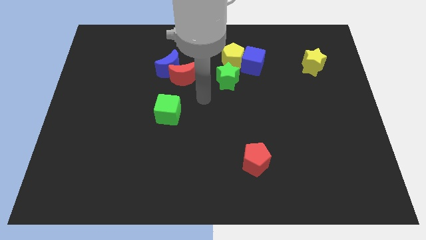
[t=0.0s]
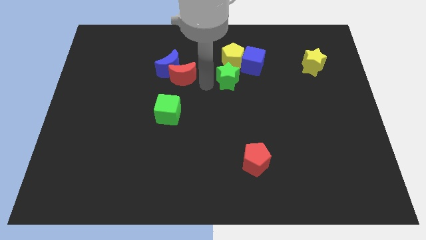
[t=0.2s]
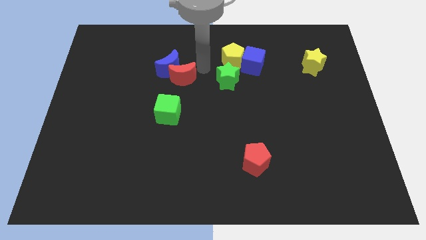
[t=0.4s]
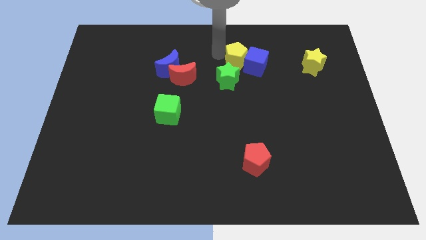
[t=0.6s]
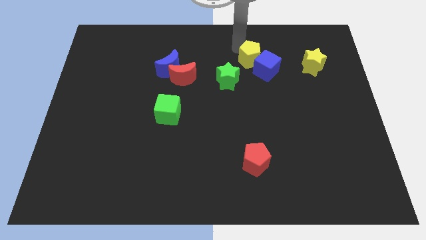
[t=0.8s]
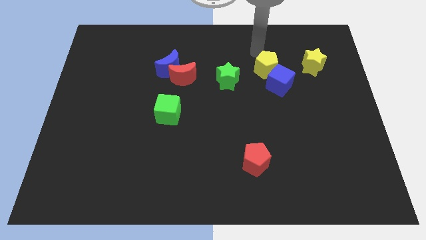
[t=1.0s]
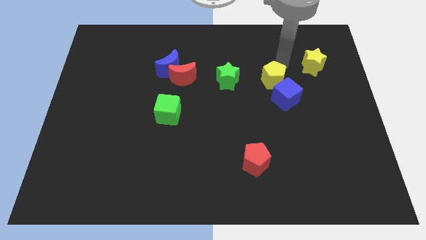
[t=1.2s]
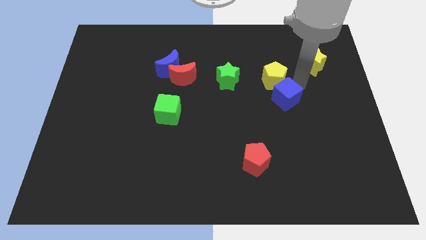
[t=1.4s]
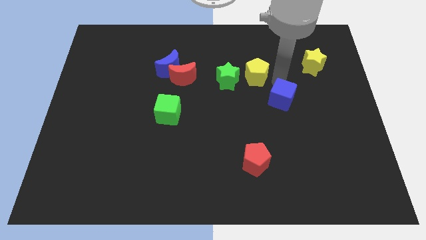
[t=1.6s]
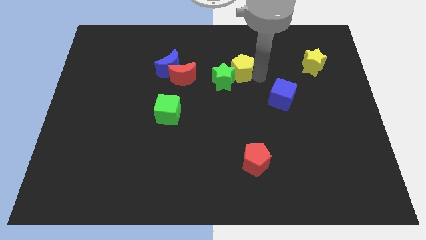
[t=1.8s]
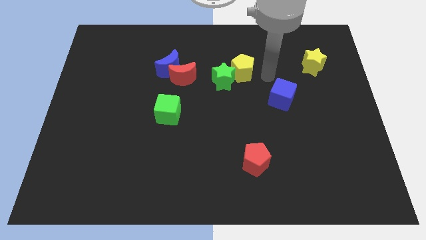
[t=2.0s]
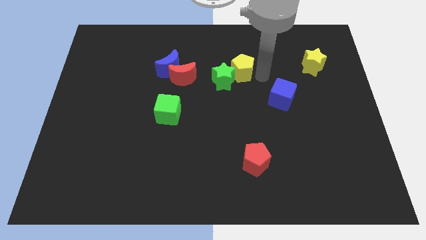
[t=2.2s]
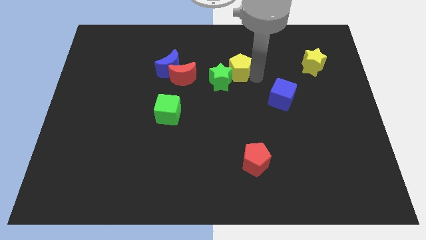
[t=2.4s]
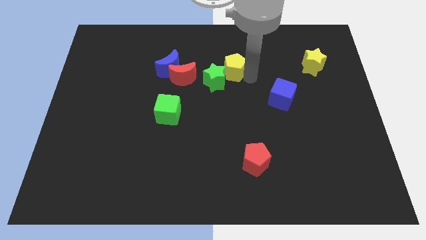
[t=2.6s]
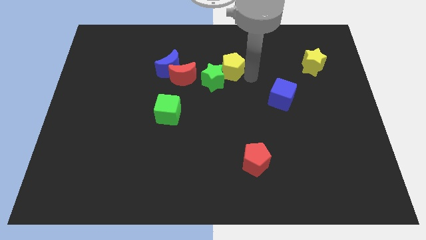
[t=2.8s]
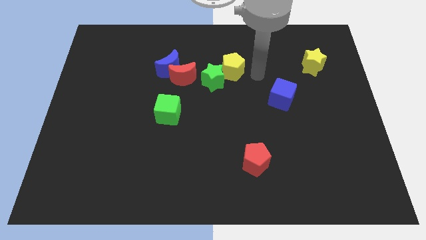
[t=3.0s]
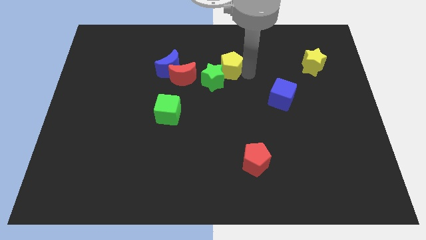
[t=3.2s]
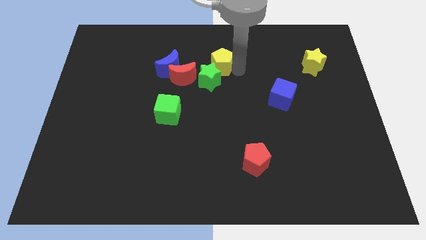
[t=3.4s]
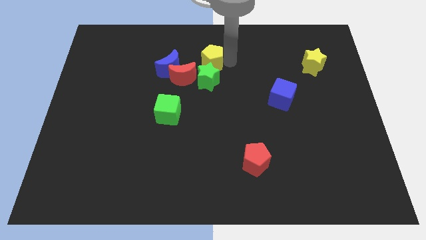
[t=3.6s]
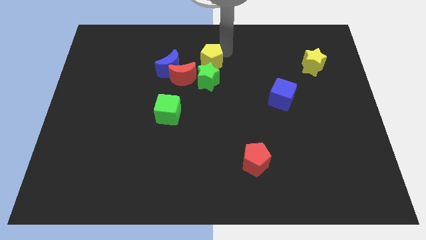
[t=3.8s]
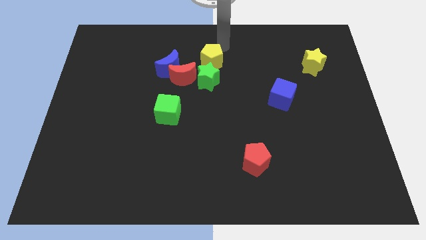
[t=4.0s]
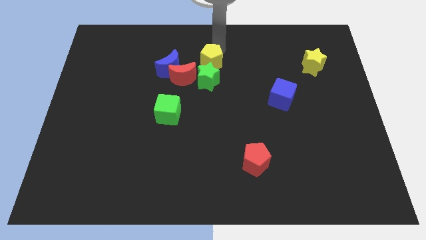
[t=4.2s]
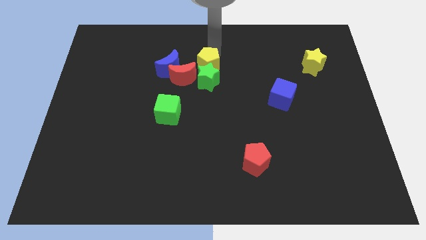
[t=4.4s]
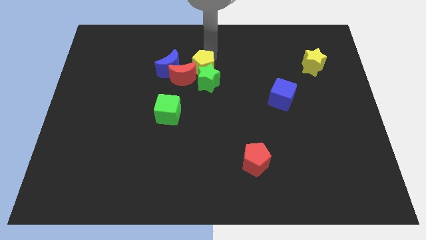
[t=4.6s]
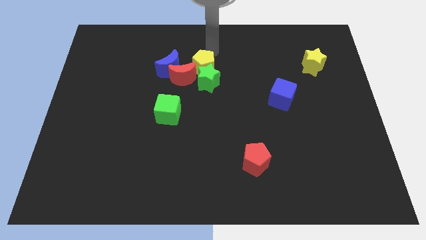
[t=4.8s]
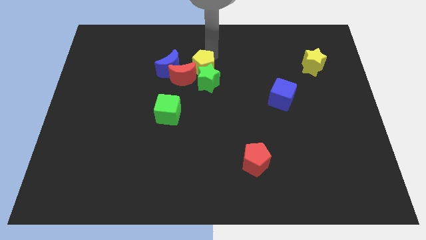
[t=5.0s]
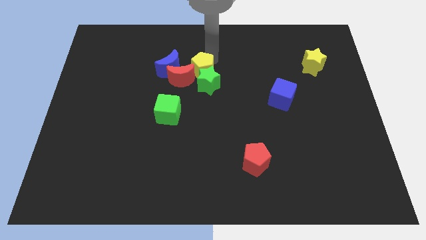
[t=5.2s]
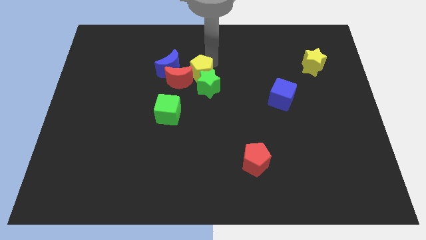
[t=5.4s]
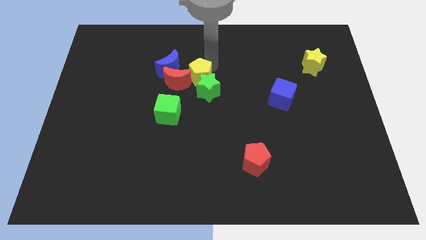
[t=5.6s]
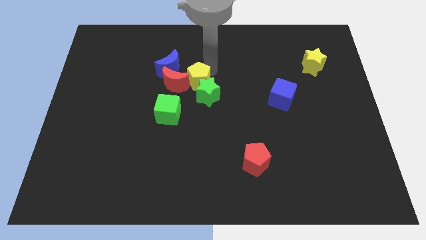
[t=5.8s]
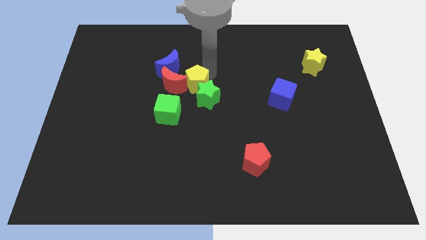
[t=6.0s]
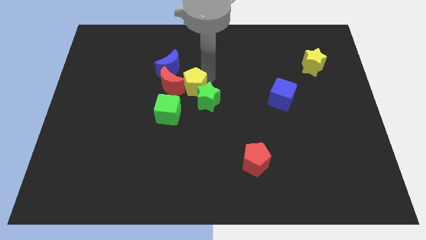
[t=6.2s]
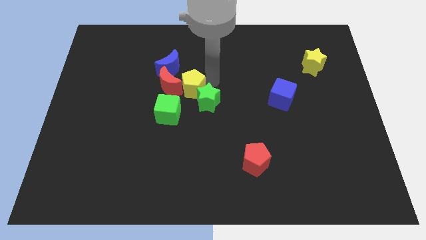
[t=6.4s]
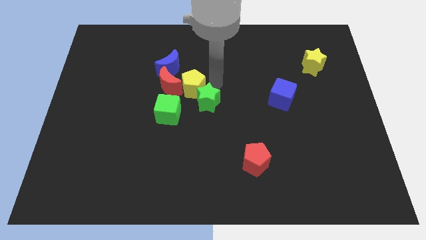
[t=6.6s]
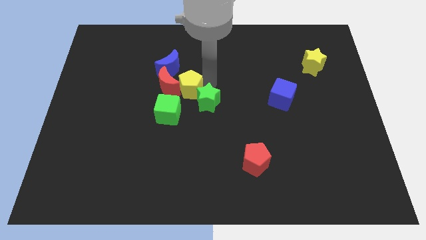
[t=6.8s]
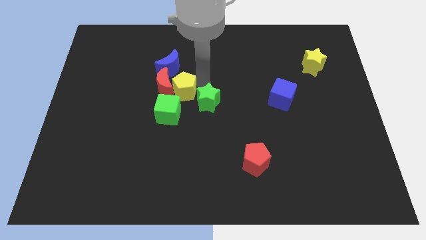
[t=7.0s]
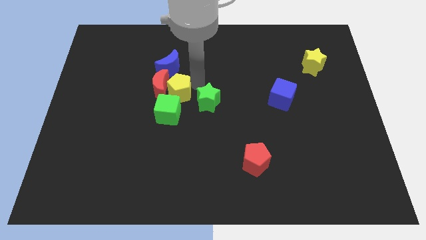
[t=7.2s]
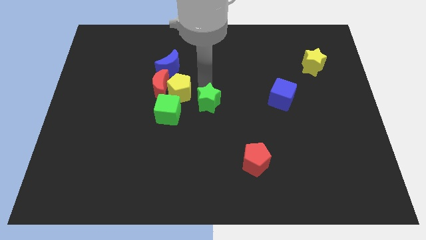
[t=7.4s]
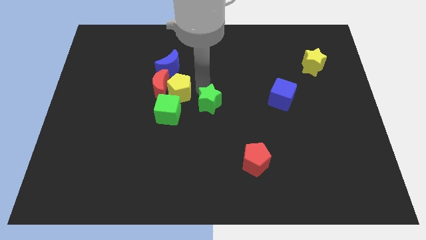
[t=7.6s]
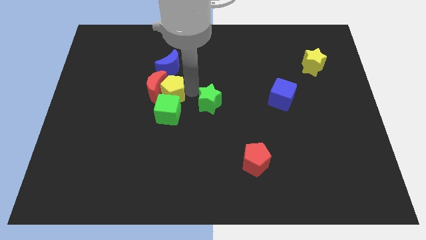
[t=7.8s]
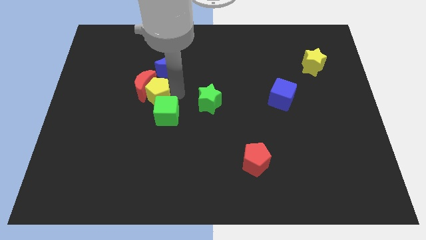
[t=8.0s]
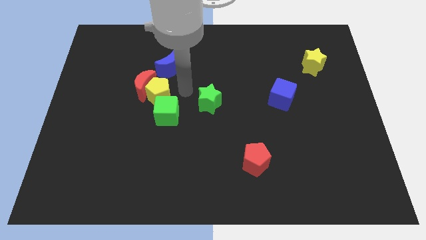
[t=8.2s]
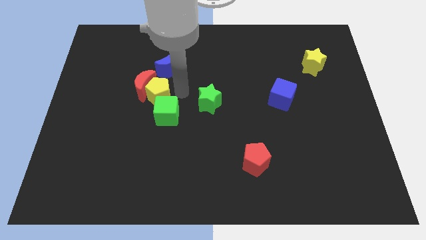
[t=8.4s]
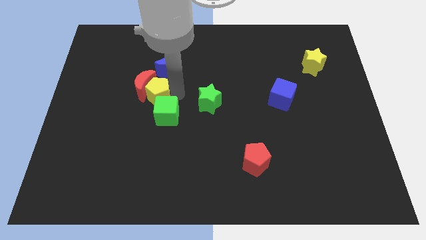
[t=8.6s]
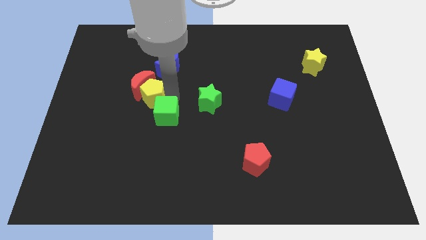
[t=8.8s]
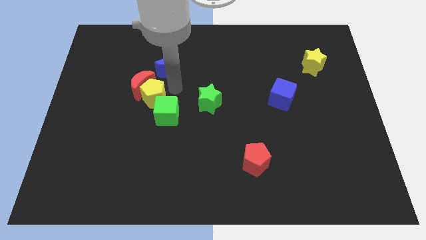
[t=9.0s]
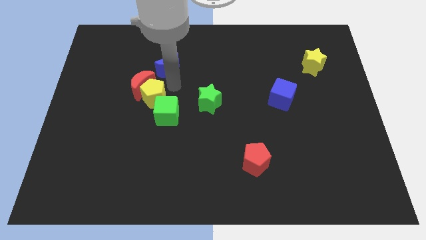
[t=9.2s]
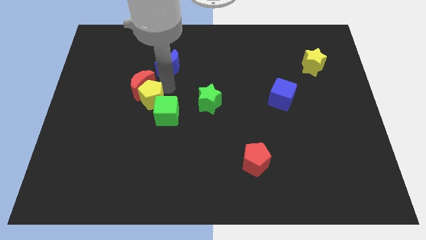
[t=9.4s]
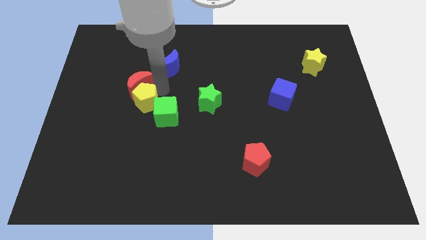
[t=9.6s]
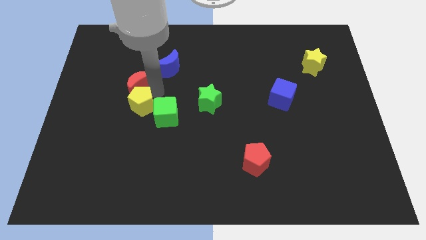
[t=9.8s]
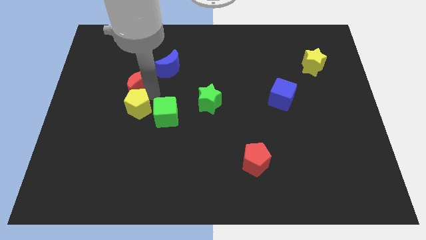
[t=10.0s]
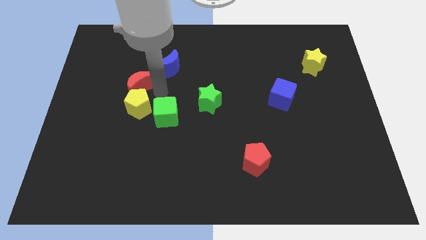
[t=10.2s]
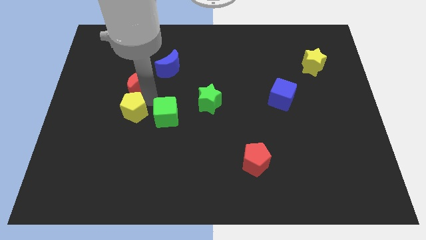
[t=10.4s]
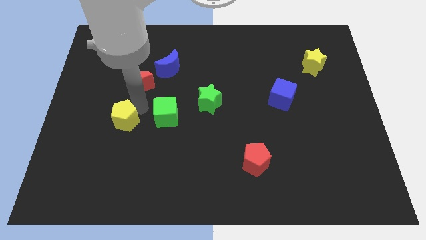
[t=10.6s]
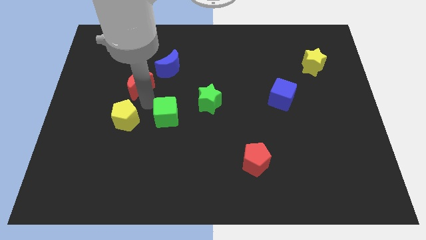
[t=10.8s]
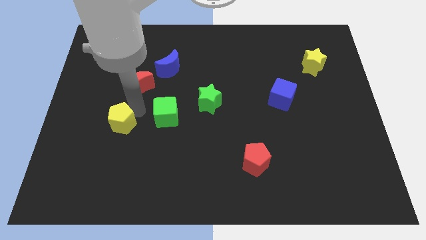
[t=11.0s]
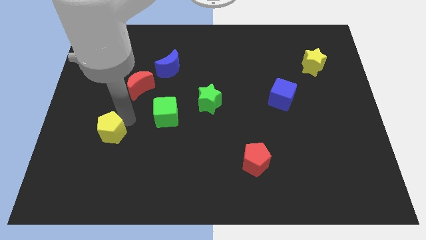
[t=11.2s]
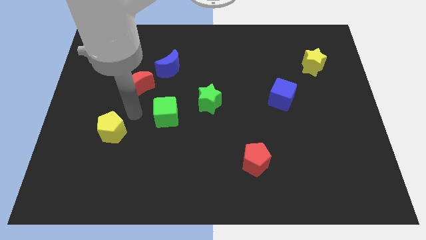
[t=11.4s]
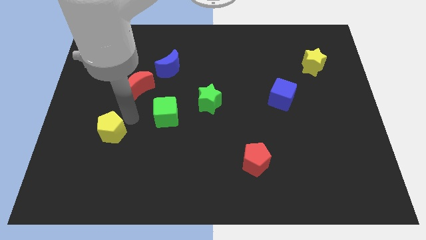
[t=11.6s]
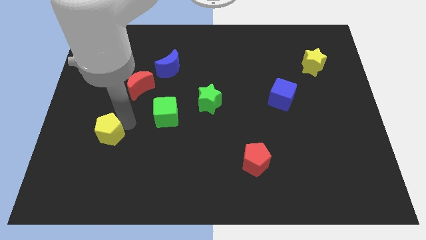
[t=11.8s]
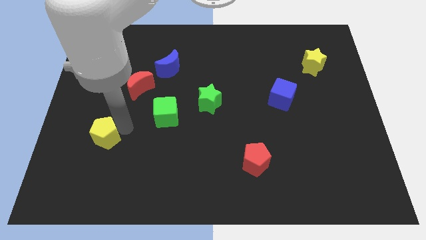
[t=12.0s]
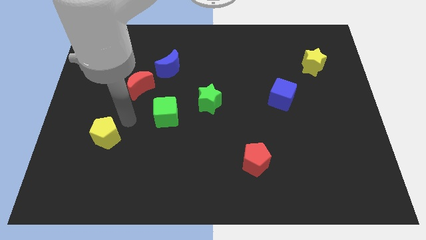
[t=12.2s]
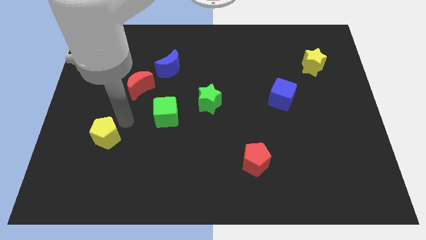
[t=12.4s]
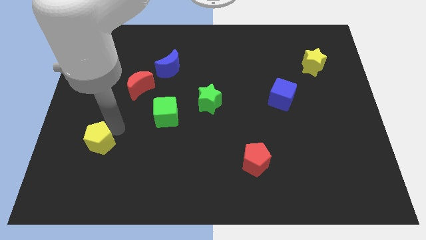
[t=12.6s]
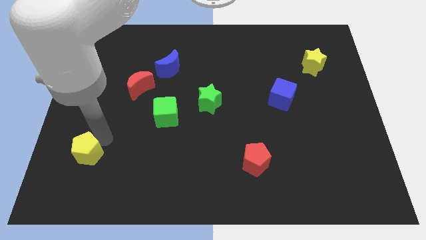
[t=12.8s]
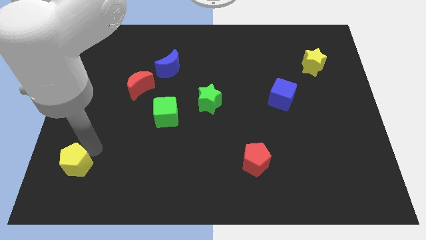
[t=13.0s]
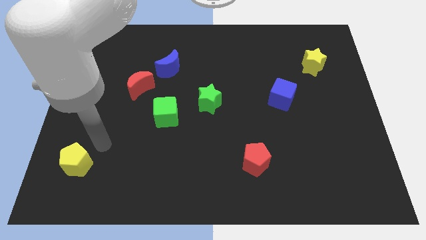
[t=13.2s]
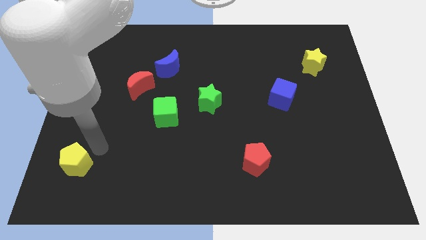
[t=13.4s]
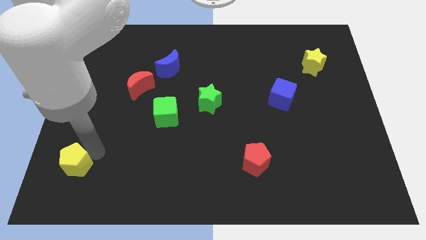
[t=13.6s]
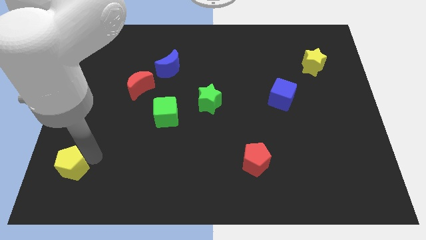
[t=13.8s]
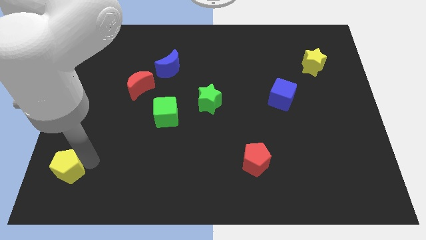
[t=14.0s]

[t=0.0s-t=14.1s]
move the yellow pentagon to the bottom left of the board
